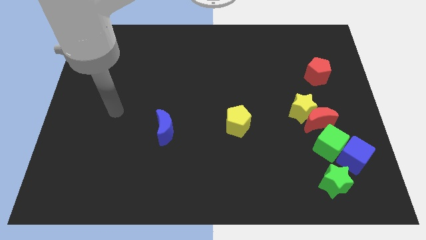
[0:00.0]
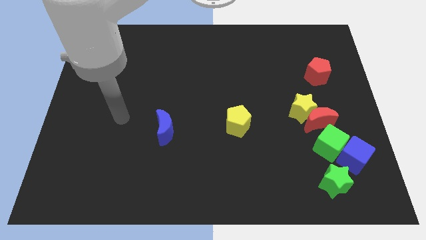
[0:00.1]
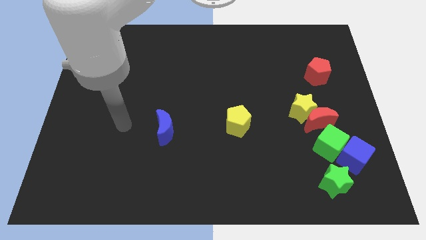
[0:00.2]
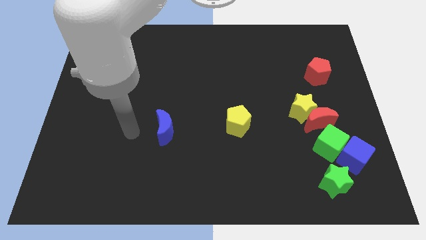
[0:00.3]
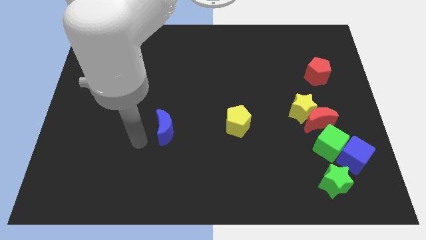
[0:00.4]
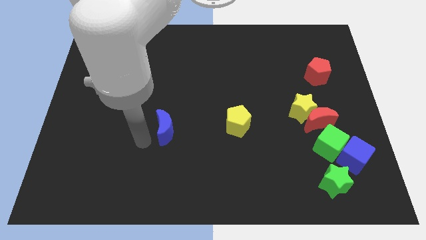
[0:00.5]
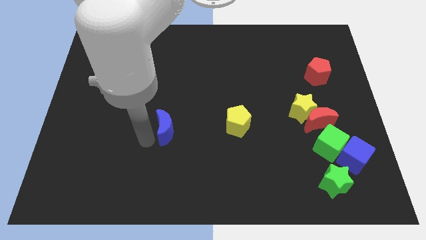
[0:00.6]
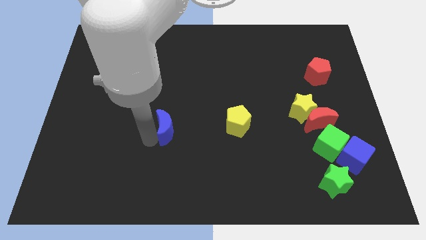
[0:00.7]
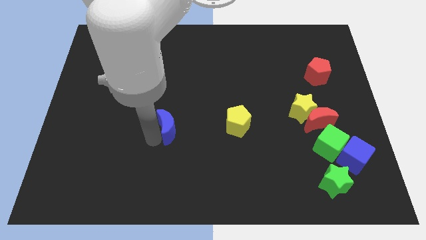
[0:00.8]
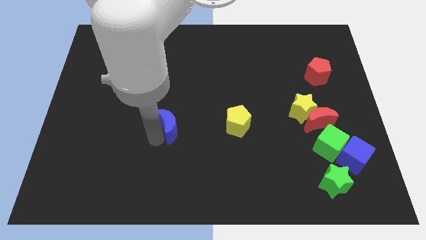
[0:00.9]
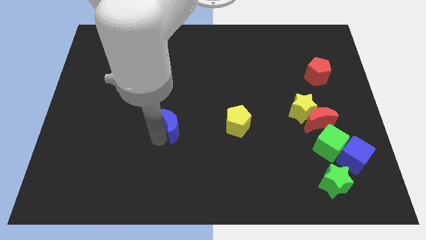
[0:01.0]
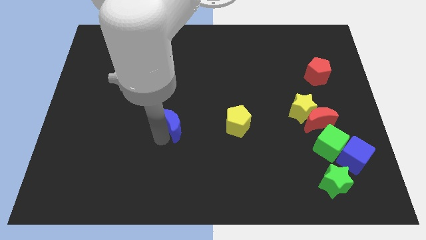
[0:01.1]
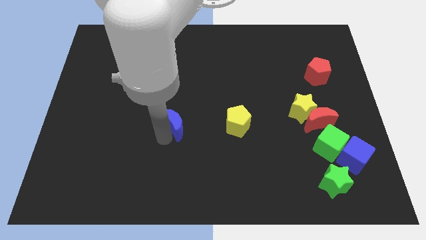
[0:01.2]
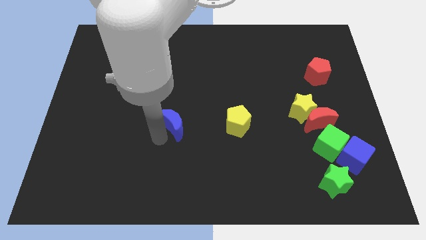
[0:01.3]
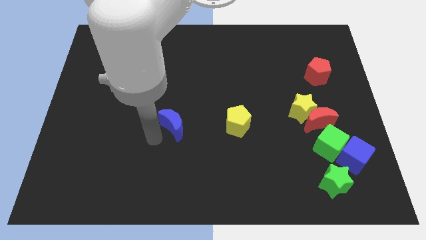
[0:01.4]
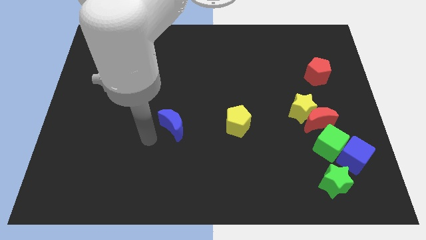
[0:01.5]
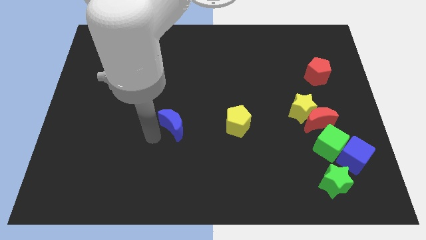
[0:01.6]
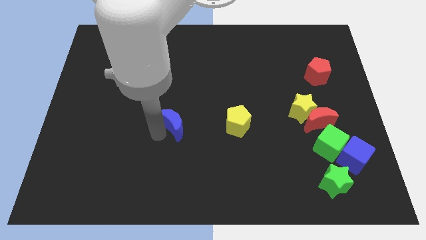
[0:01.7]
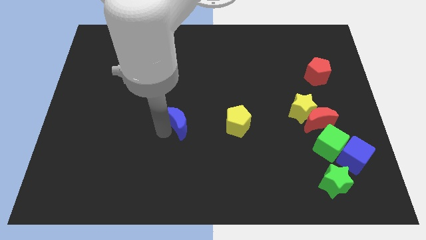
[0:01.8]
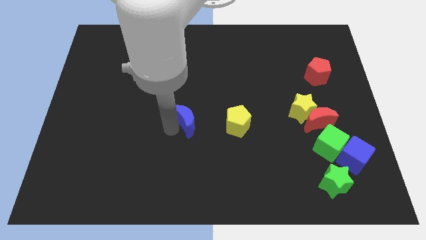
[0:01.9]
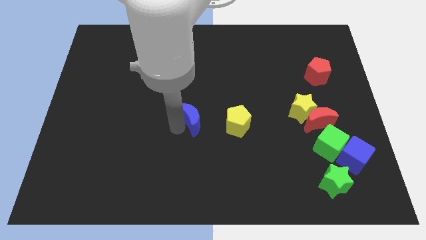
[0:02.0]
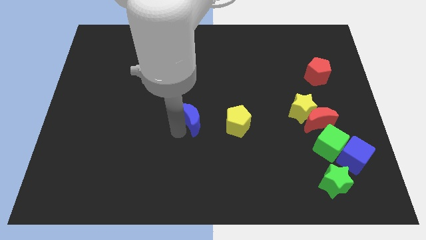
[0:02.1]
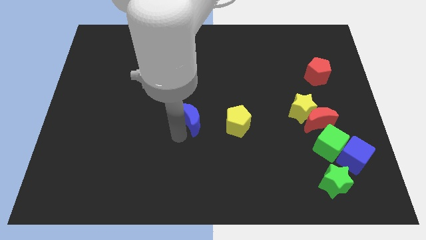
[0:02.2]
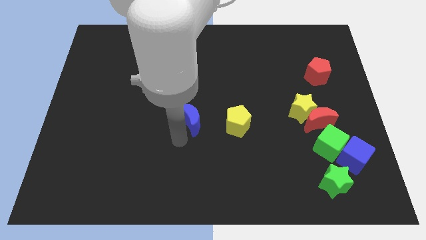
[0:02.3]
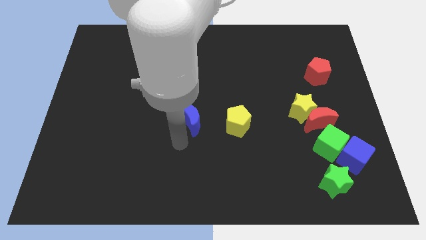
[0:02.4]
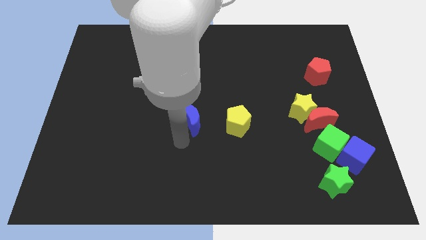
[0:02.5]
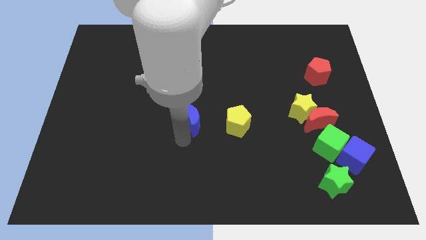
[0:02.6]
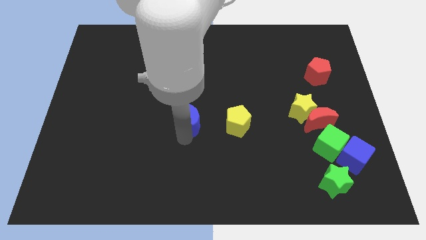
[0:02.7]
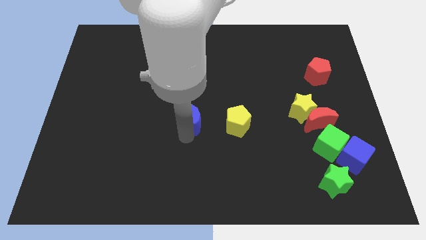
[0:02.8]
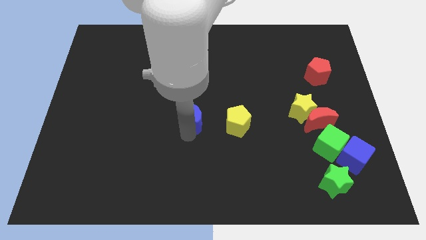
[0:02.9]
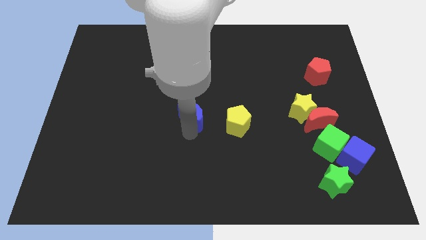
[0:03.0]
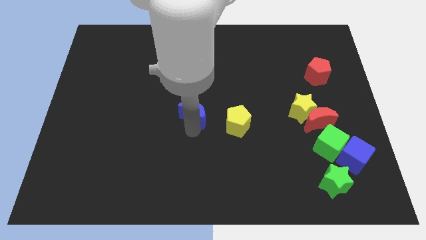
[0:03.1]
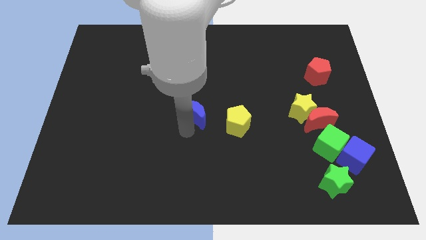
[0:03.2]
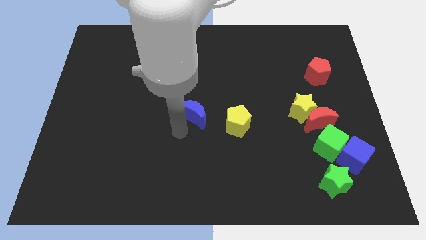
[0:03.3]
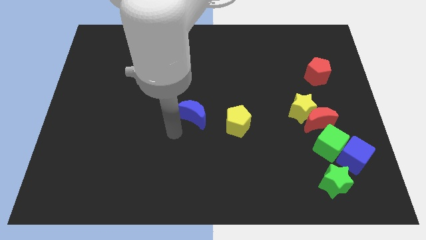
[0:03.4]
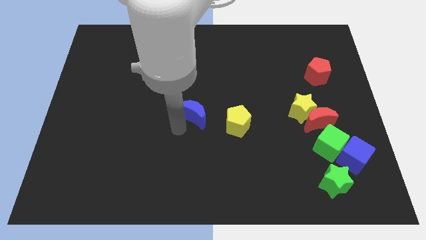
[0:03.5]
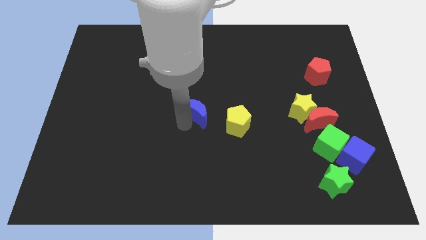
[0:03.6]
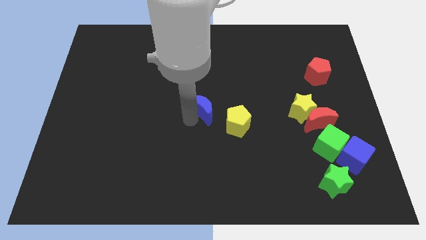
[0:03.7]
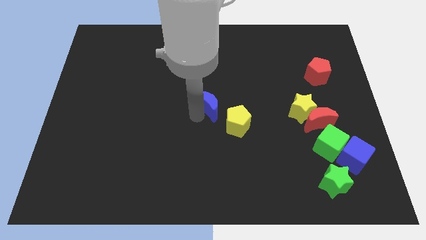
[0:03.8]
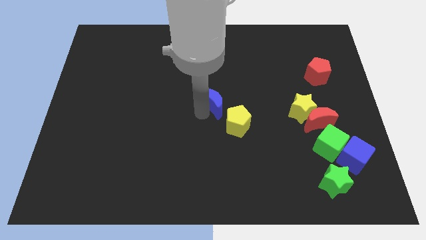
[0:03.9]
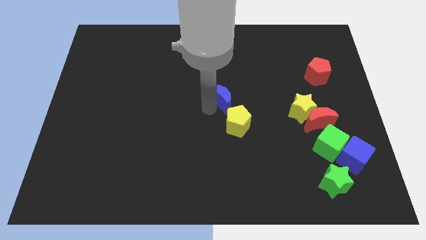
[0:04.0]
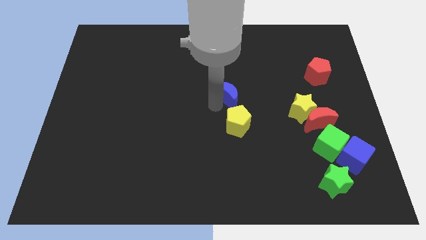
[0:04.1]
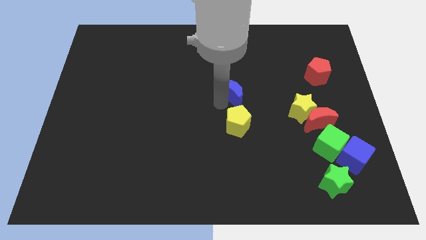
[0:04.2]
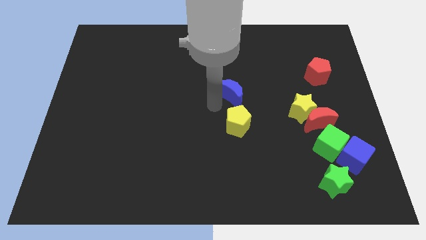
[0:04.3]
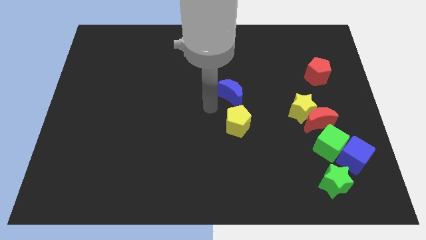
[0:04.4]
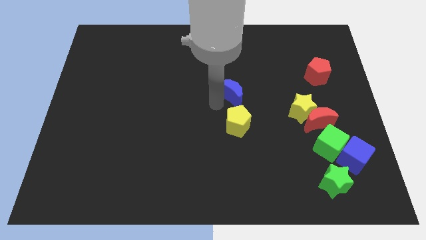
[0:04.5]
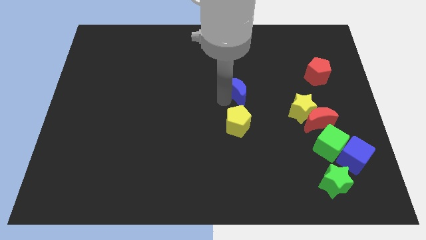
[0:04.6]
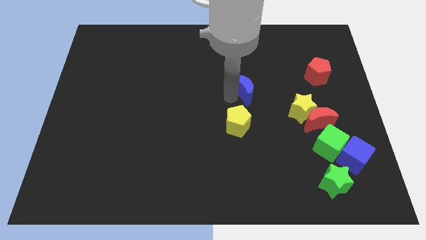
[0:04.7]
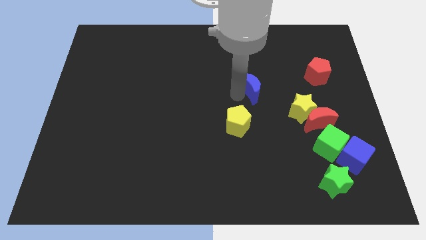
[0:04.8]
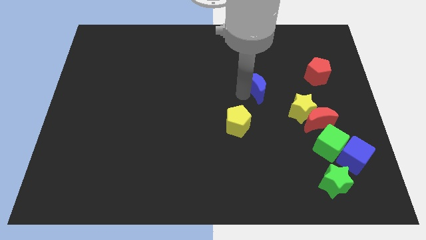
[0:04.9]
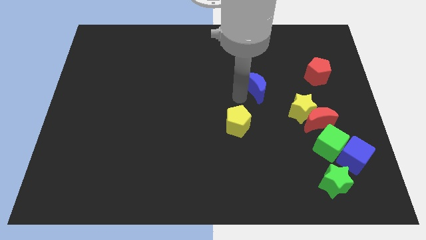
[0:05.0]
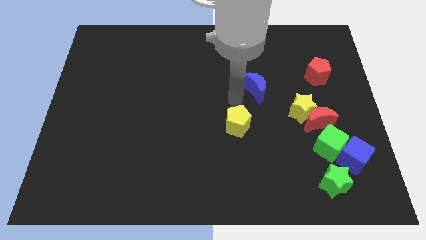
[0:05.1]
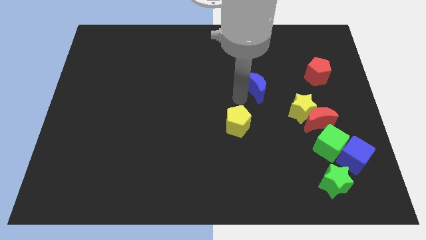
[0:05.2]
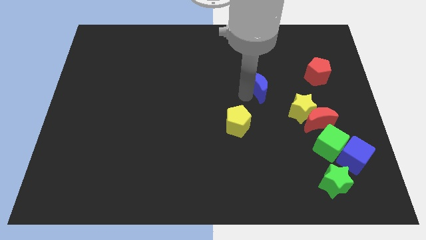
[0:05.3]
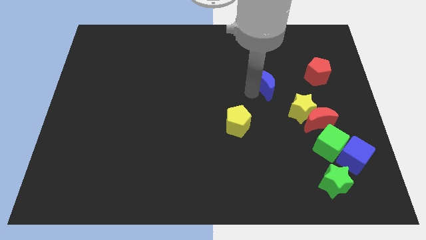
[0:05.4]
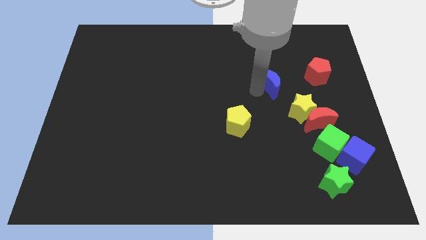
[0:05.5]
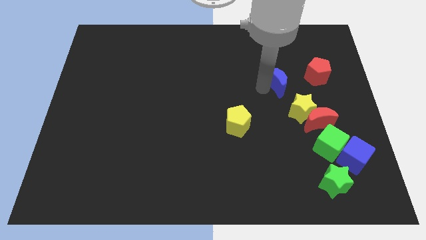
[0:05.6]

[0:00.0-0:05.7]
move the blue moon to the top side of the yellow star

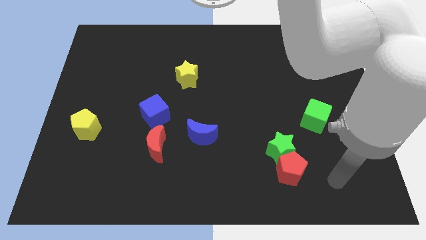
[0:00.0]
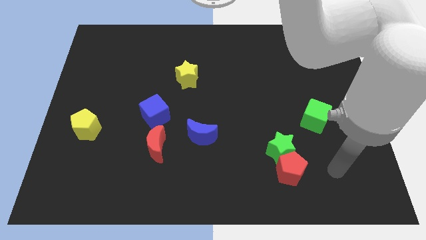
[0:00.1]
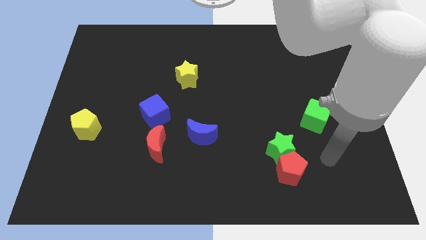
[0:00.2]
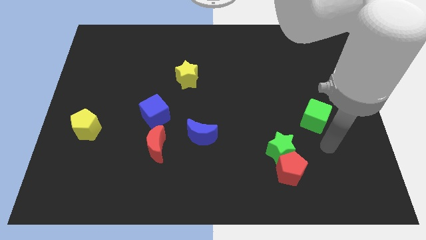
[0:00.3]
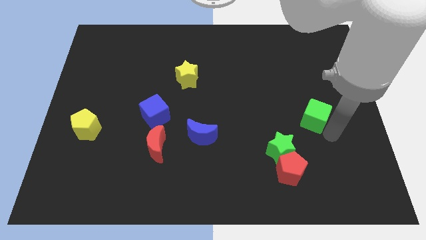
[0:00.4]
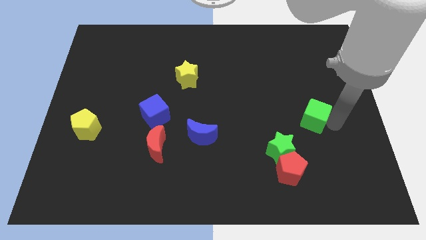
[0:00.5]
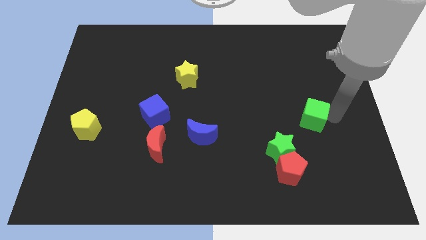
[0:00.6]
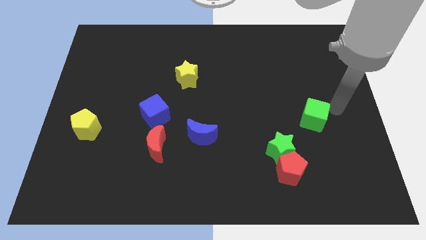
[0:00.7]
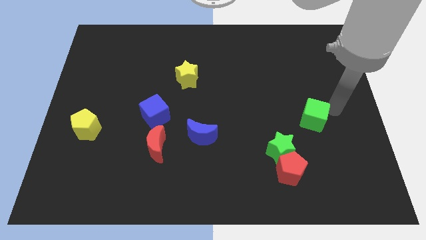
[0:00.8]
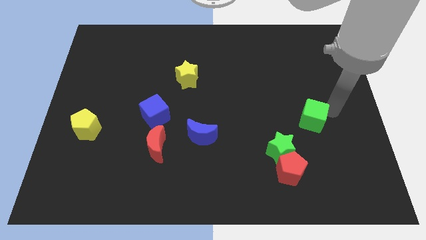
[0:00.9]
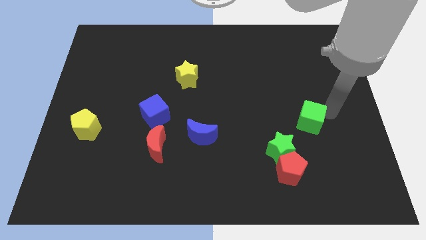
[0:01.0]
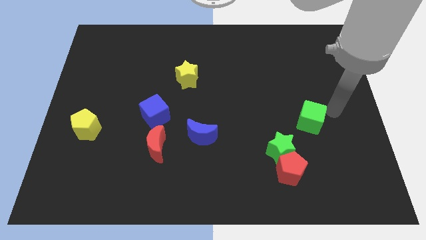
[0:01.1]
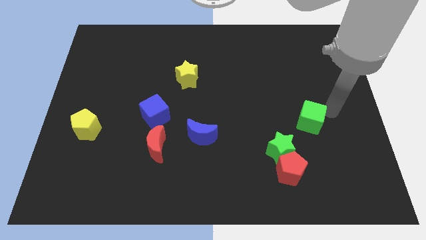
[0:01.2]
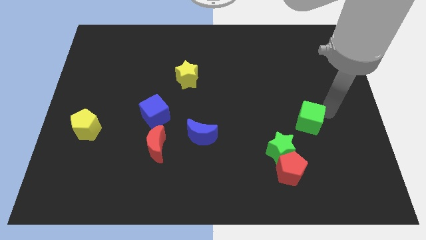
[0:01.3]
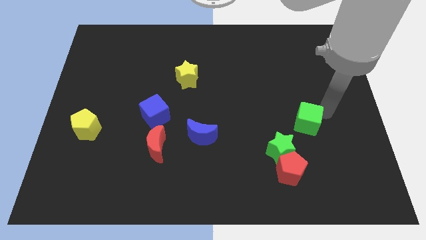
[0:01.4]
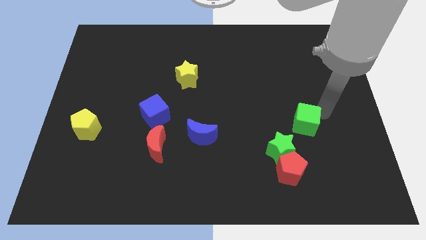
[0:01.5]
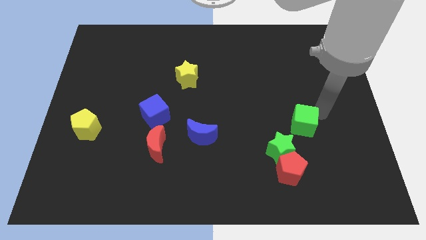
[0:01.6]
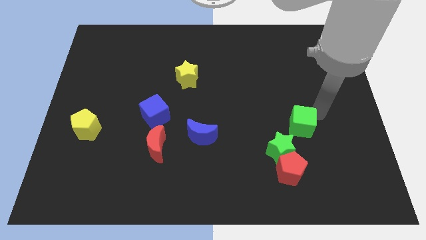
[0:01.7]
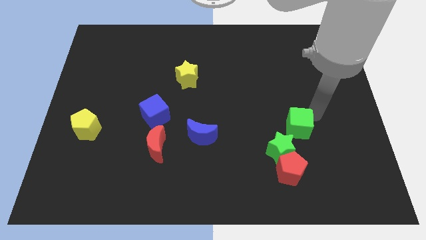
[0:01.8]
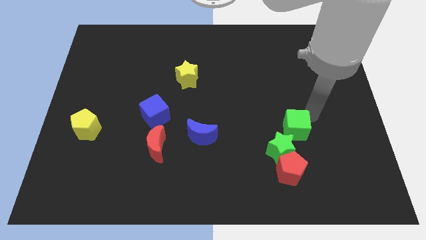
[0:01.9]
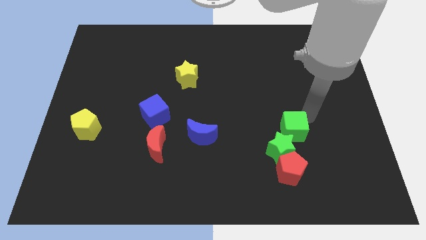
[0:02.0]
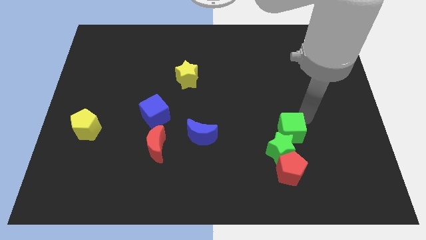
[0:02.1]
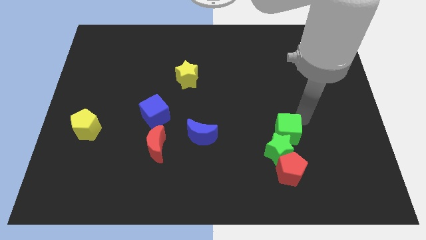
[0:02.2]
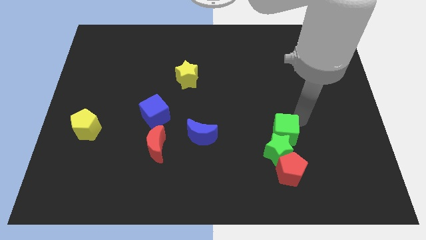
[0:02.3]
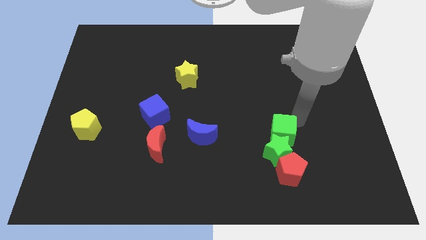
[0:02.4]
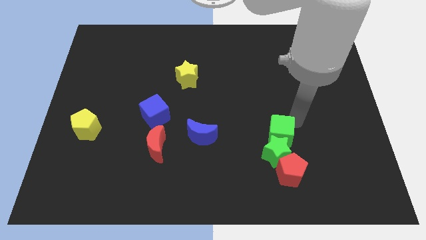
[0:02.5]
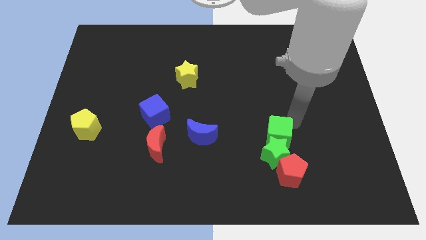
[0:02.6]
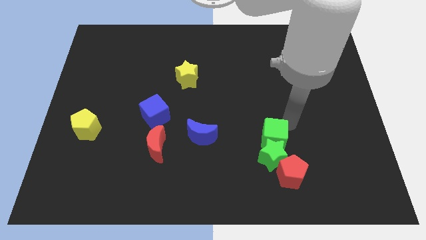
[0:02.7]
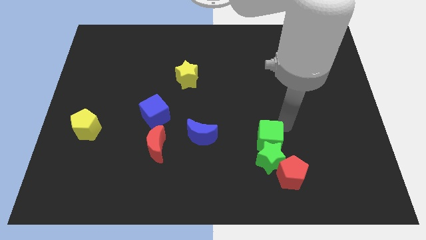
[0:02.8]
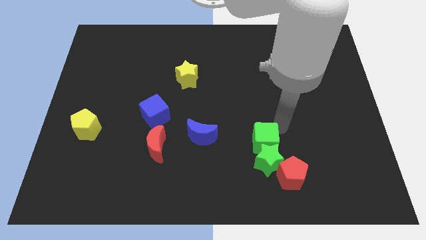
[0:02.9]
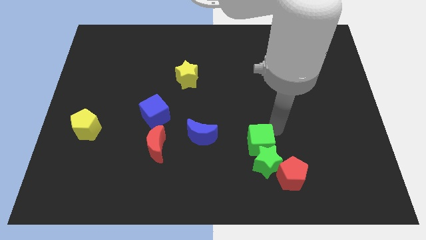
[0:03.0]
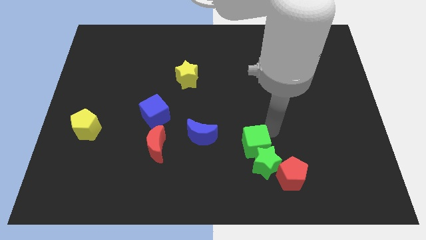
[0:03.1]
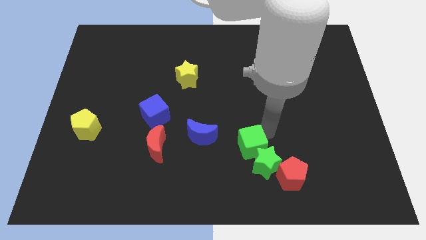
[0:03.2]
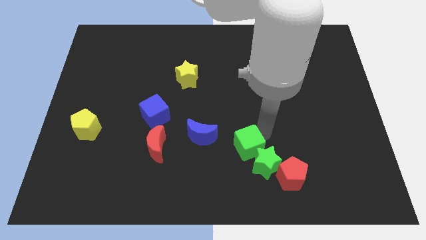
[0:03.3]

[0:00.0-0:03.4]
push the green cube to the left side of the green star
